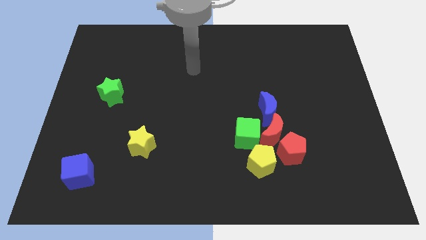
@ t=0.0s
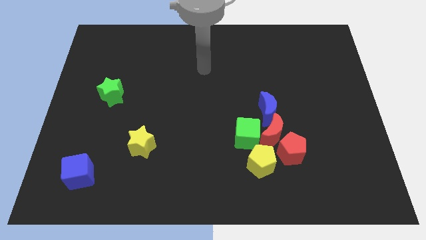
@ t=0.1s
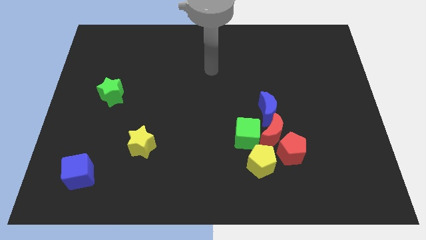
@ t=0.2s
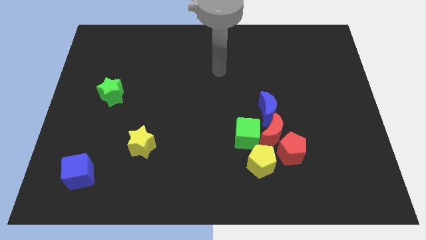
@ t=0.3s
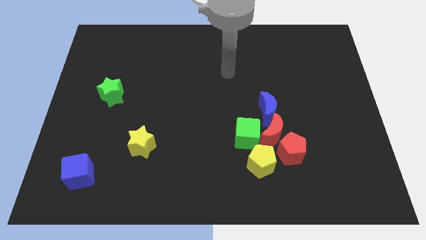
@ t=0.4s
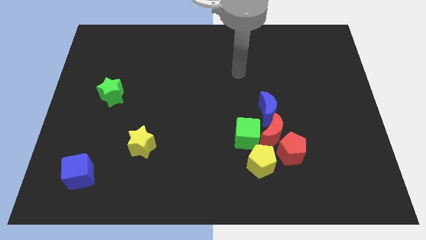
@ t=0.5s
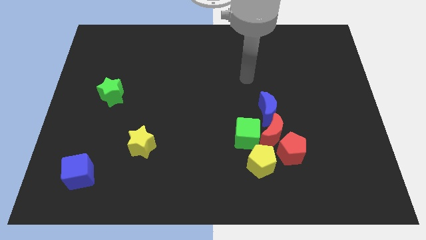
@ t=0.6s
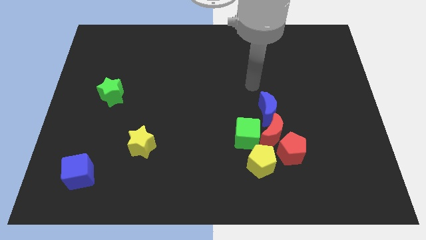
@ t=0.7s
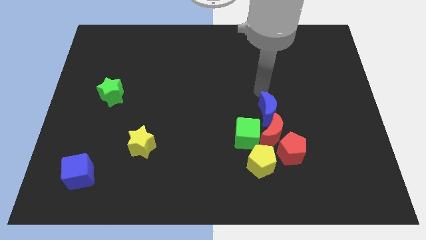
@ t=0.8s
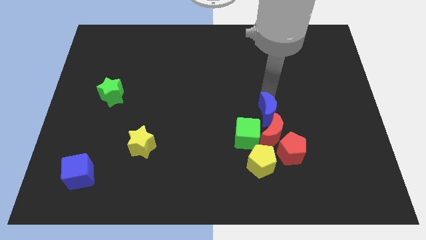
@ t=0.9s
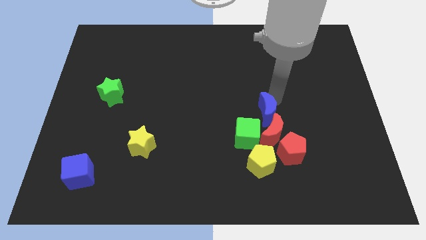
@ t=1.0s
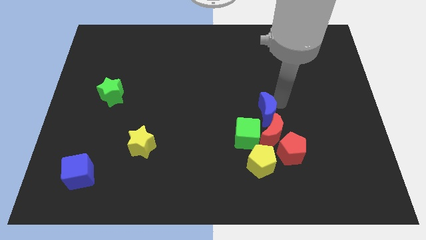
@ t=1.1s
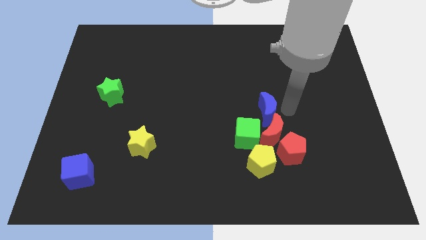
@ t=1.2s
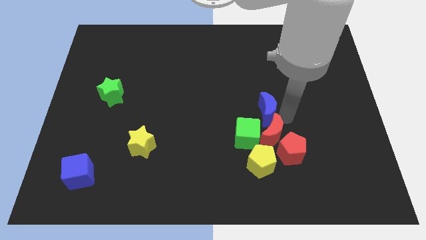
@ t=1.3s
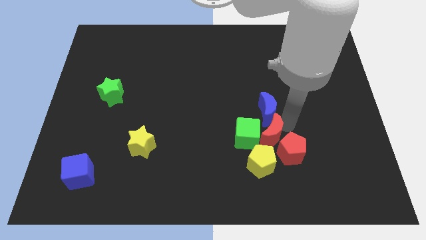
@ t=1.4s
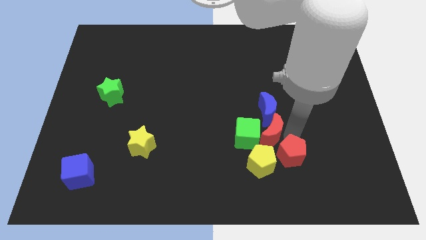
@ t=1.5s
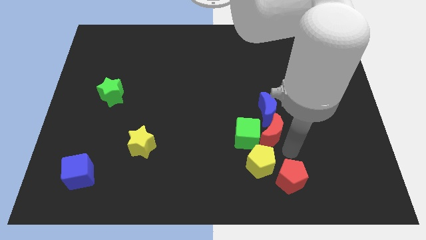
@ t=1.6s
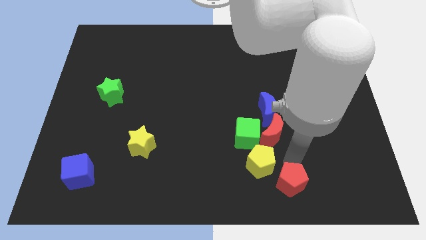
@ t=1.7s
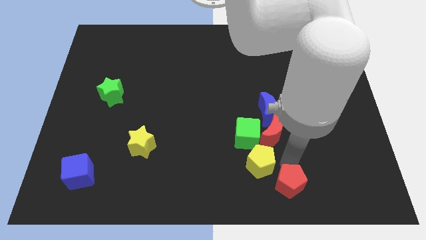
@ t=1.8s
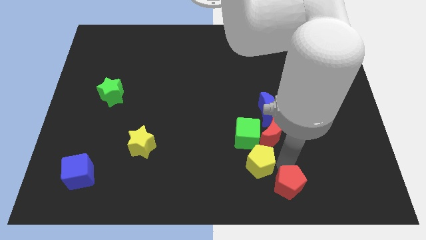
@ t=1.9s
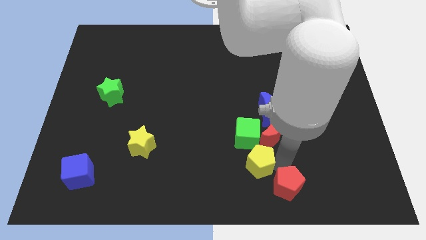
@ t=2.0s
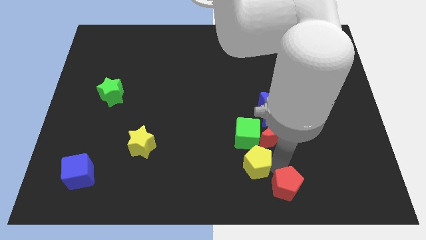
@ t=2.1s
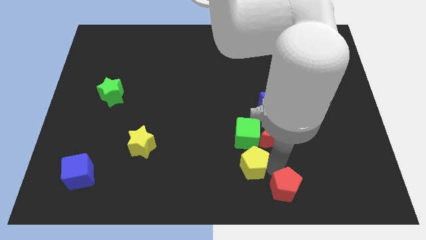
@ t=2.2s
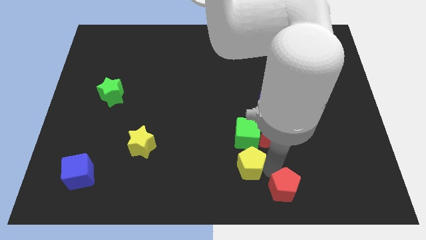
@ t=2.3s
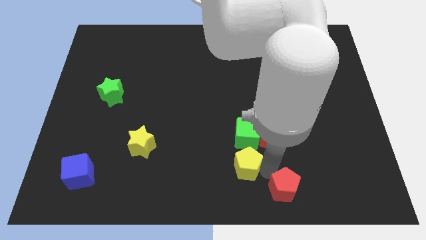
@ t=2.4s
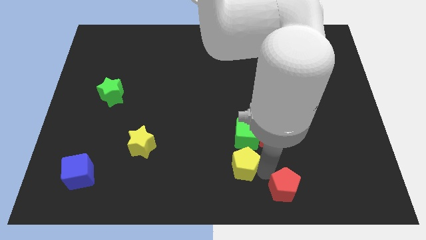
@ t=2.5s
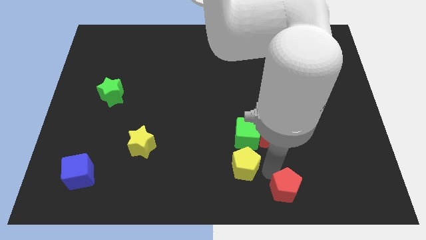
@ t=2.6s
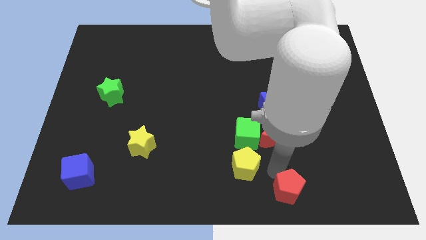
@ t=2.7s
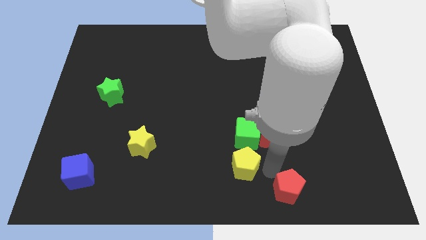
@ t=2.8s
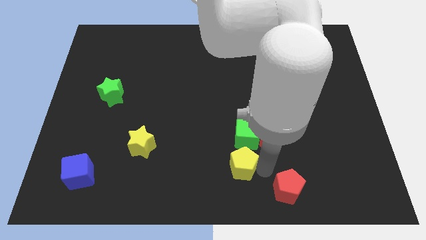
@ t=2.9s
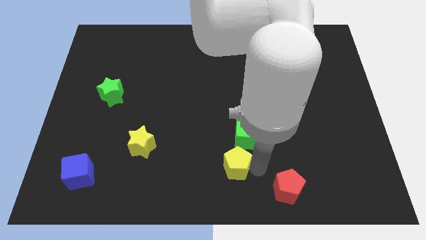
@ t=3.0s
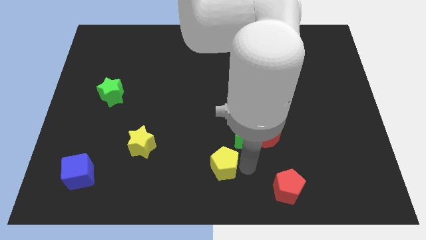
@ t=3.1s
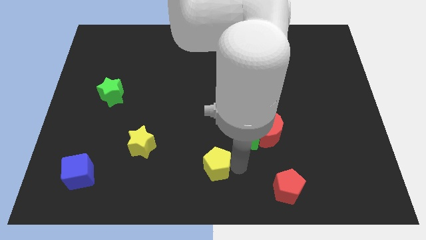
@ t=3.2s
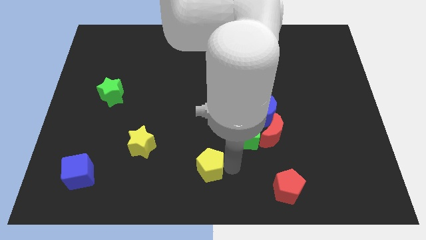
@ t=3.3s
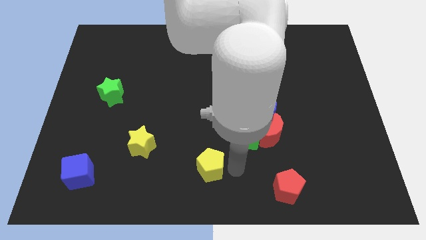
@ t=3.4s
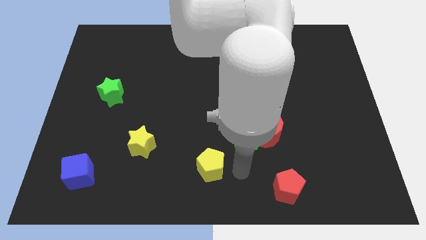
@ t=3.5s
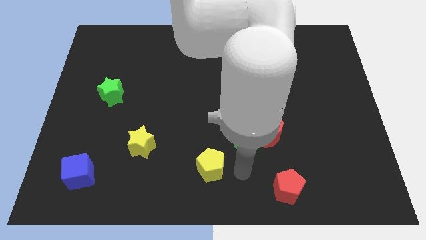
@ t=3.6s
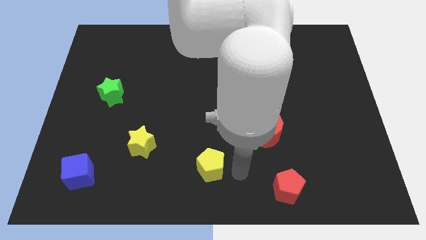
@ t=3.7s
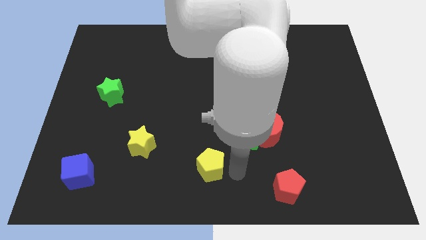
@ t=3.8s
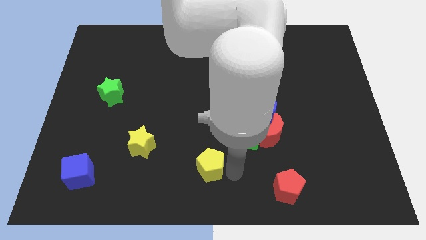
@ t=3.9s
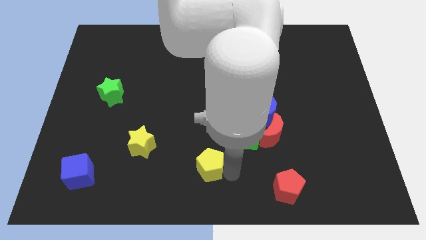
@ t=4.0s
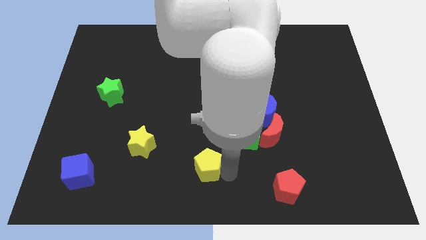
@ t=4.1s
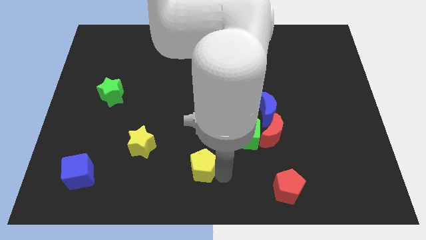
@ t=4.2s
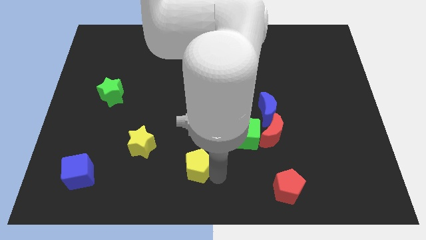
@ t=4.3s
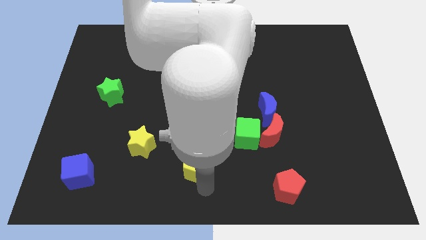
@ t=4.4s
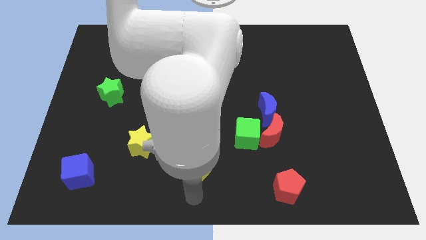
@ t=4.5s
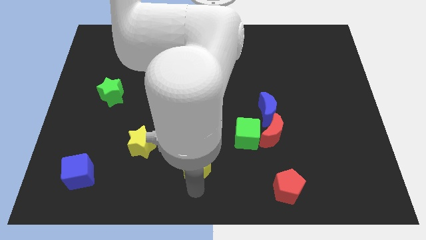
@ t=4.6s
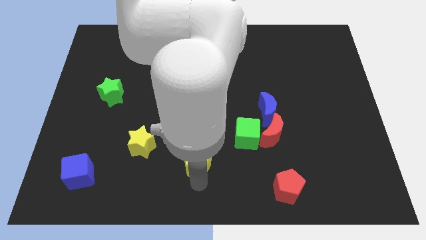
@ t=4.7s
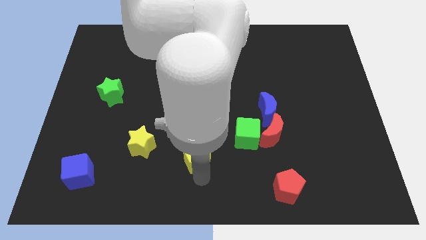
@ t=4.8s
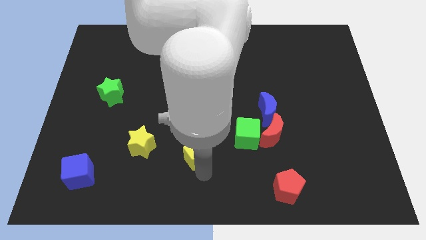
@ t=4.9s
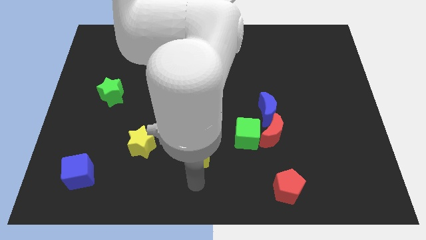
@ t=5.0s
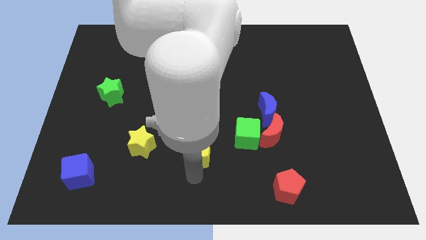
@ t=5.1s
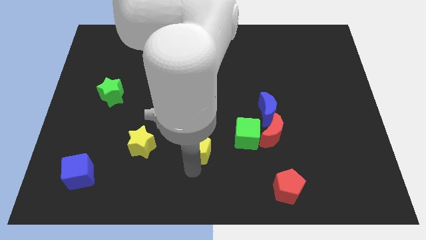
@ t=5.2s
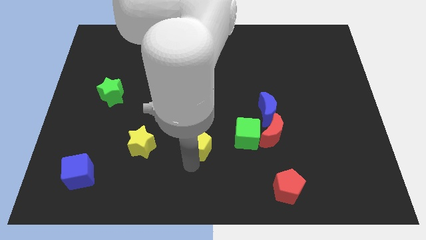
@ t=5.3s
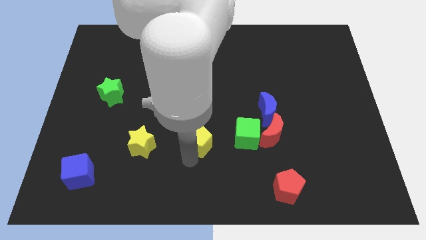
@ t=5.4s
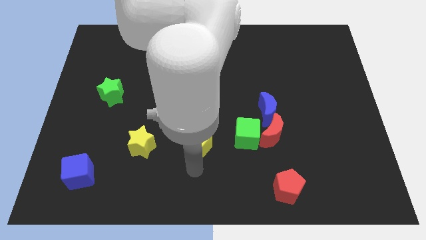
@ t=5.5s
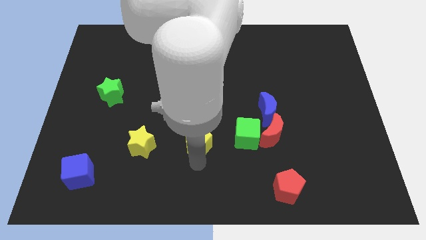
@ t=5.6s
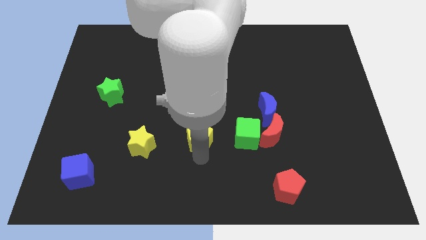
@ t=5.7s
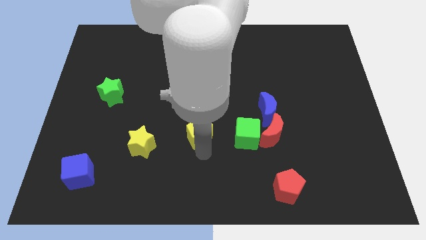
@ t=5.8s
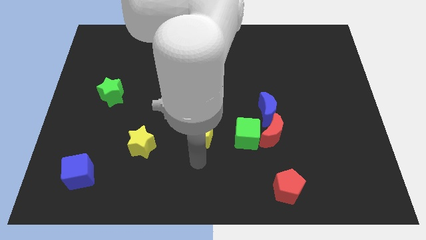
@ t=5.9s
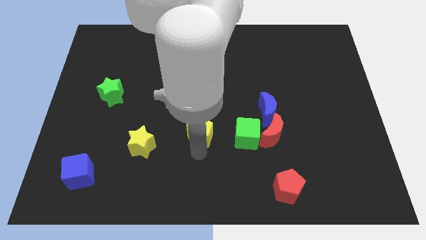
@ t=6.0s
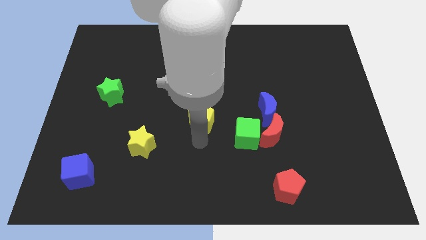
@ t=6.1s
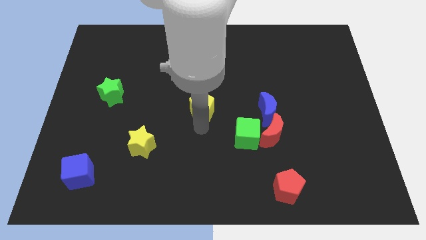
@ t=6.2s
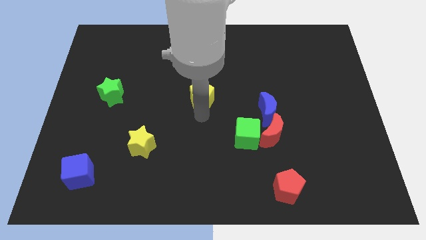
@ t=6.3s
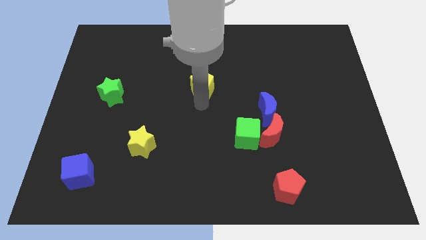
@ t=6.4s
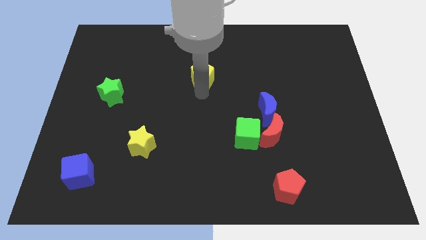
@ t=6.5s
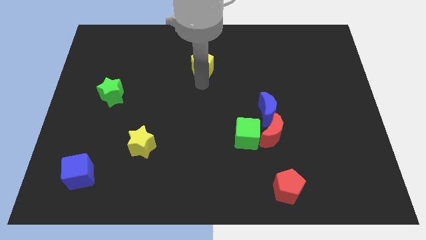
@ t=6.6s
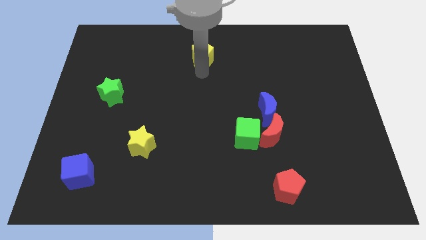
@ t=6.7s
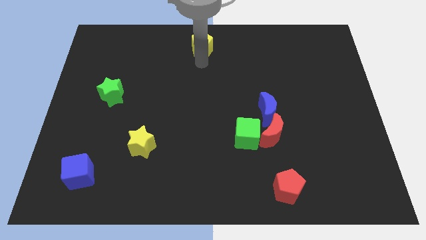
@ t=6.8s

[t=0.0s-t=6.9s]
slide the yellow pentagon to the top side
